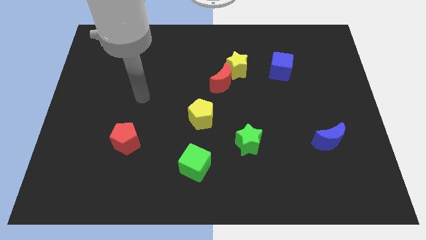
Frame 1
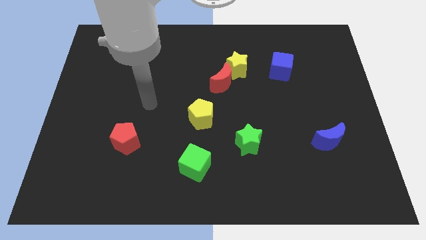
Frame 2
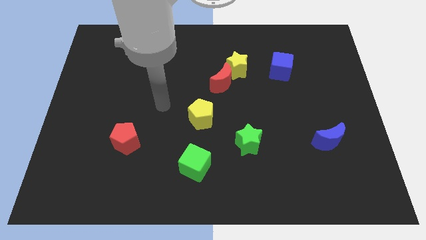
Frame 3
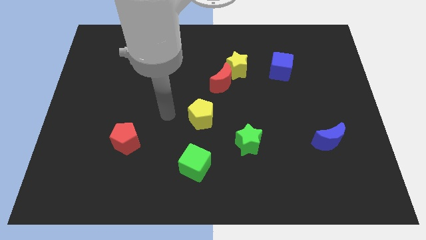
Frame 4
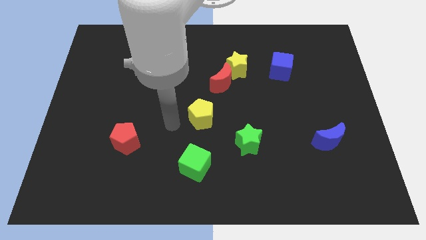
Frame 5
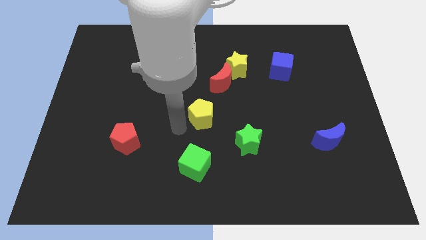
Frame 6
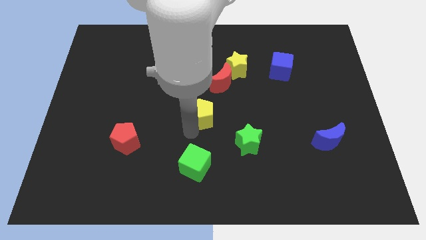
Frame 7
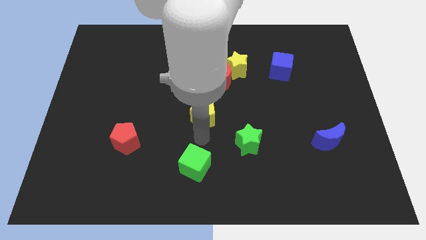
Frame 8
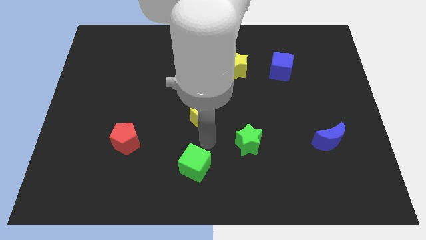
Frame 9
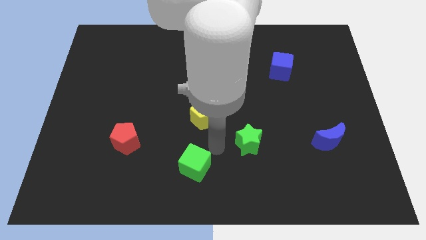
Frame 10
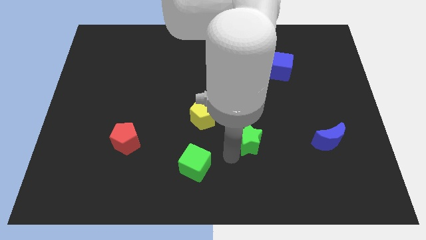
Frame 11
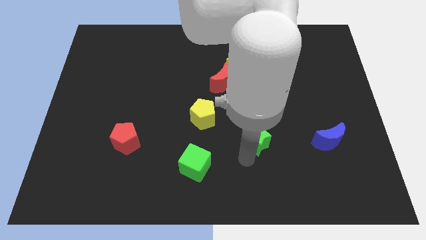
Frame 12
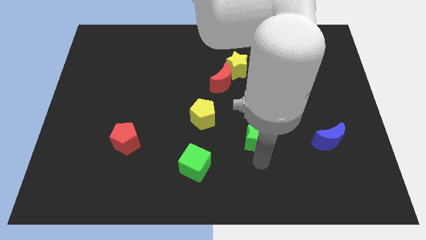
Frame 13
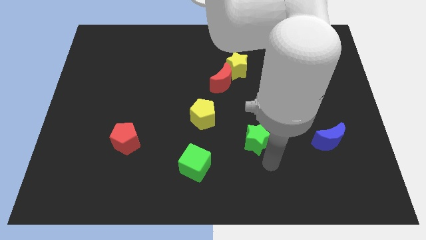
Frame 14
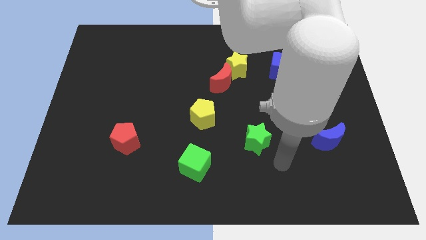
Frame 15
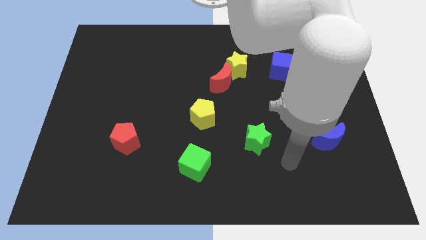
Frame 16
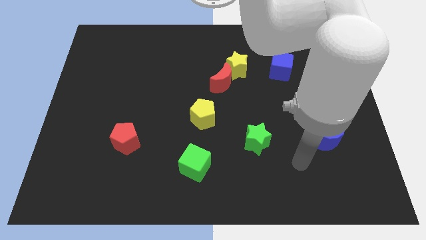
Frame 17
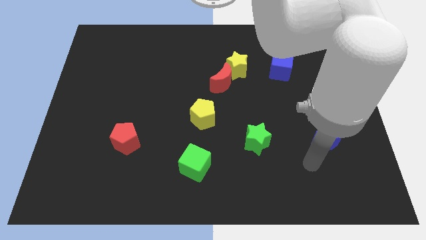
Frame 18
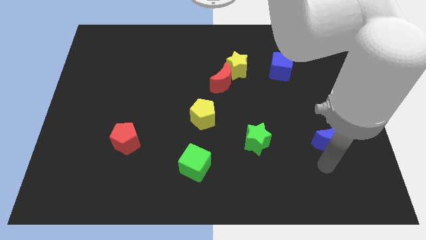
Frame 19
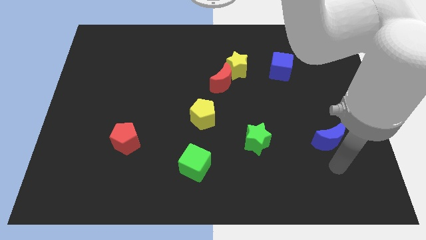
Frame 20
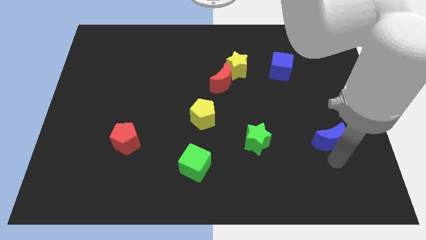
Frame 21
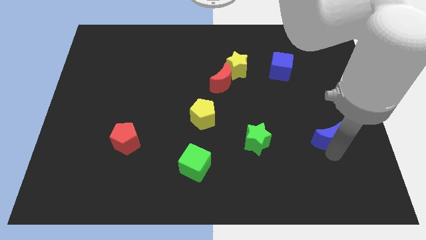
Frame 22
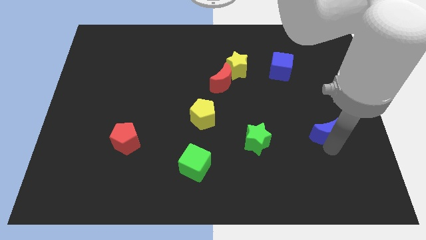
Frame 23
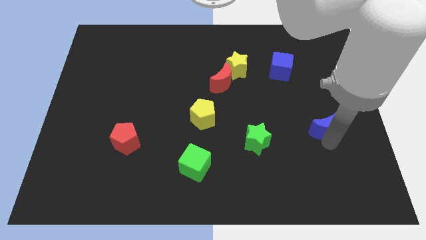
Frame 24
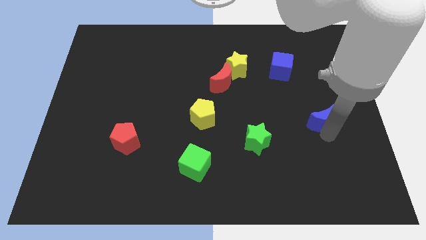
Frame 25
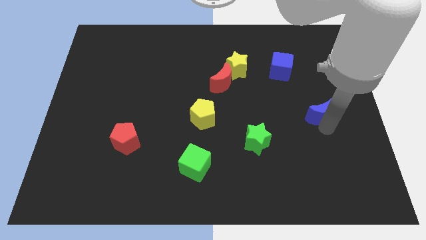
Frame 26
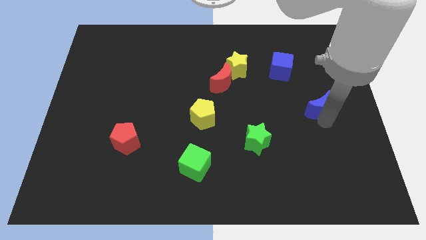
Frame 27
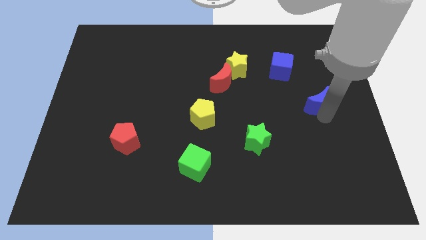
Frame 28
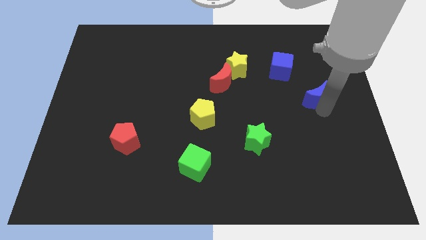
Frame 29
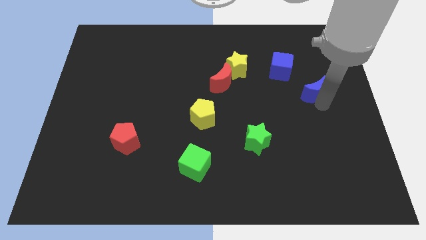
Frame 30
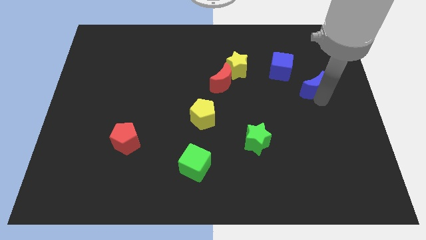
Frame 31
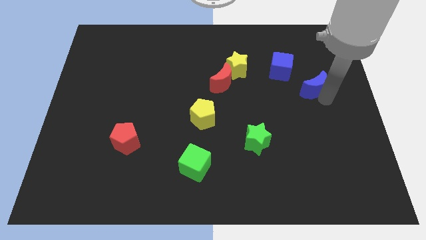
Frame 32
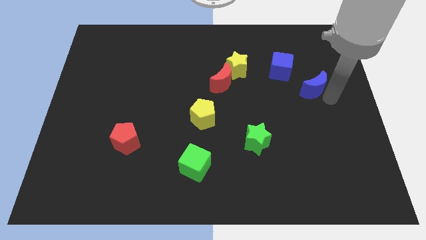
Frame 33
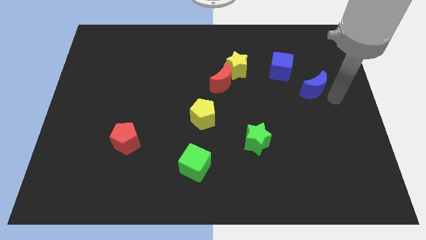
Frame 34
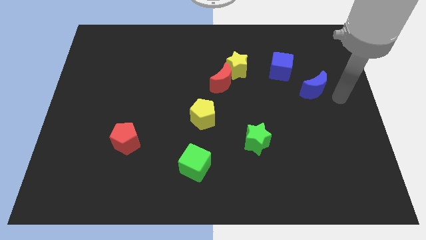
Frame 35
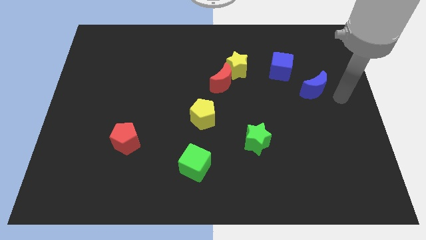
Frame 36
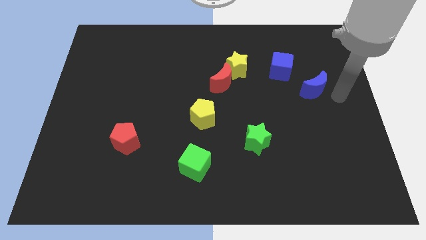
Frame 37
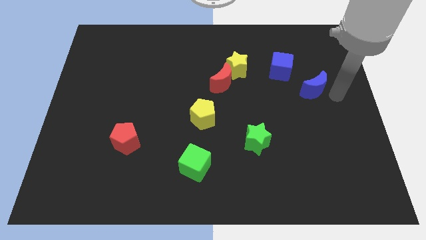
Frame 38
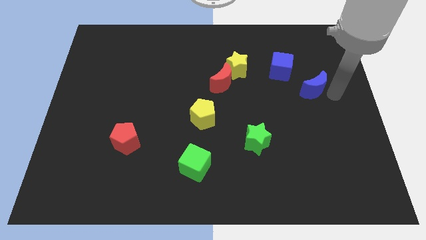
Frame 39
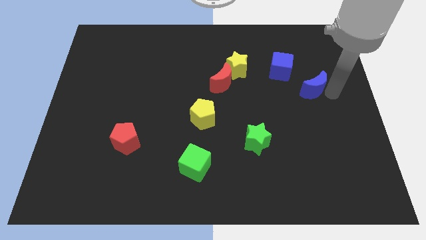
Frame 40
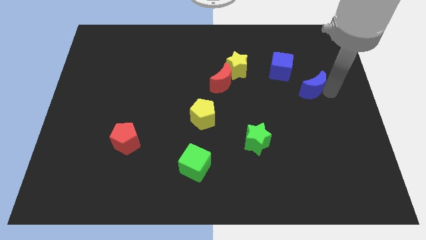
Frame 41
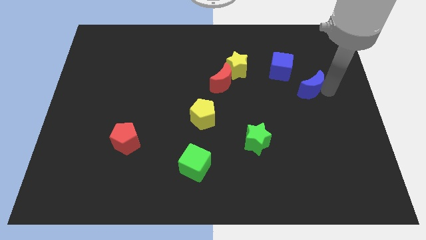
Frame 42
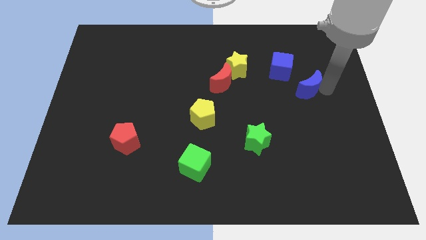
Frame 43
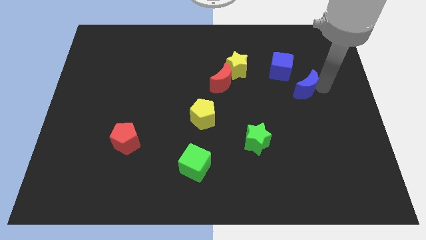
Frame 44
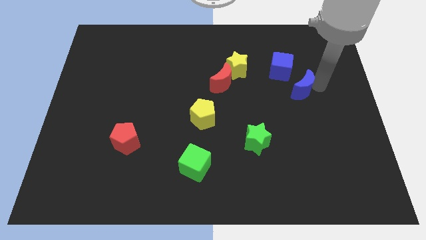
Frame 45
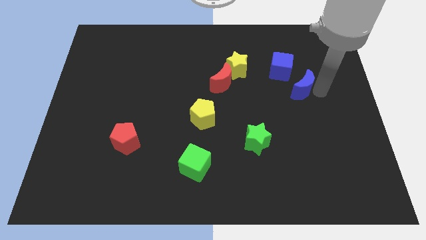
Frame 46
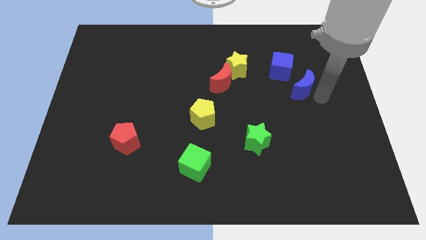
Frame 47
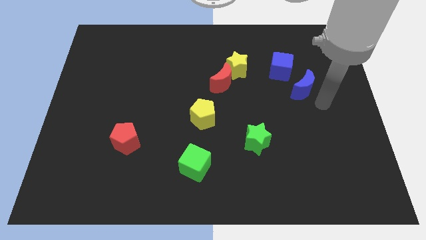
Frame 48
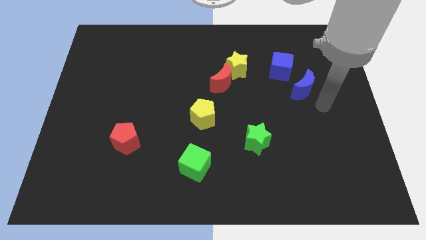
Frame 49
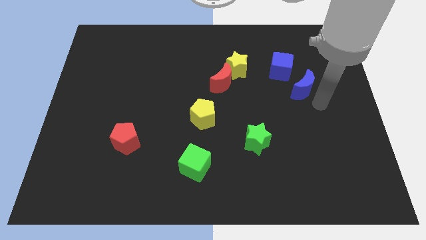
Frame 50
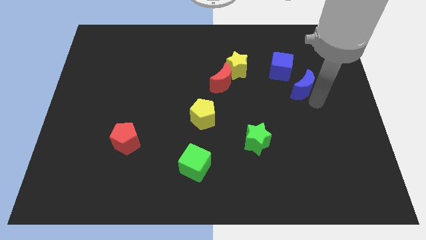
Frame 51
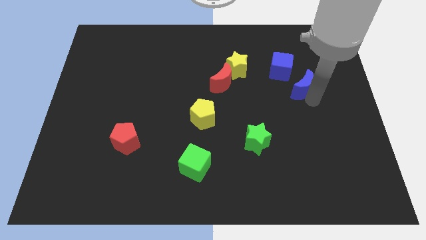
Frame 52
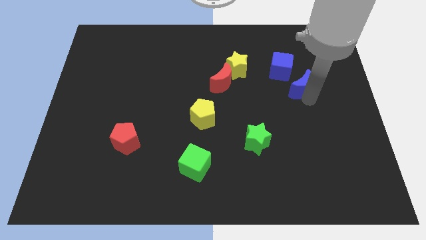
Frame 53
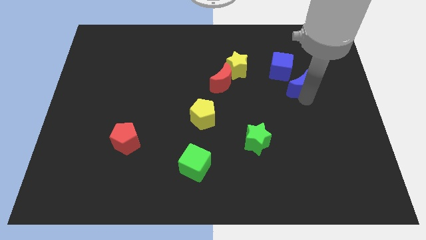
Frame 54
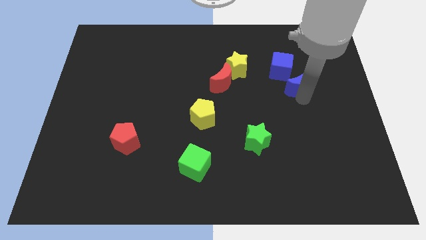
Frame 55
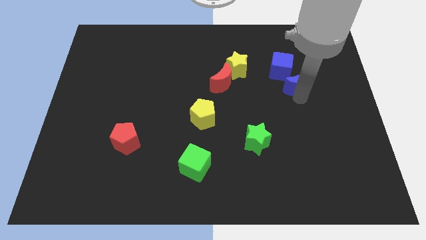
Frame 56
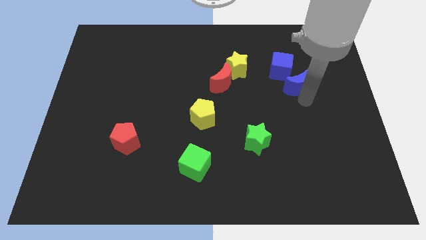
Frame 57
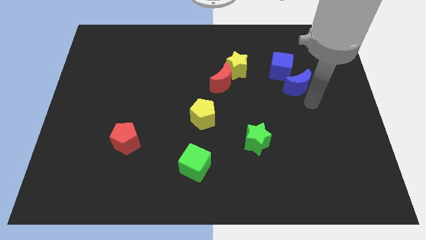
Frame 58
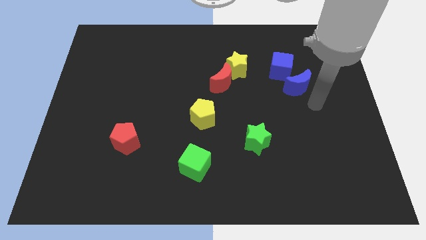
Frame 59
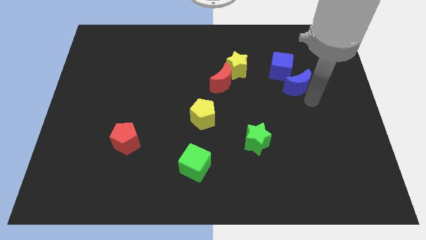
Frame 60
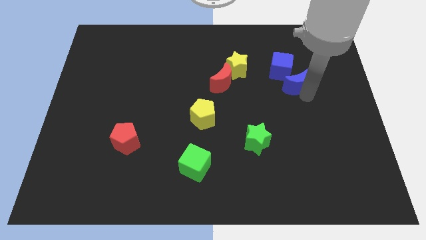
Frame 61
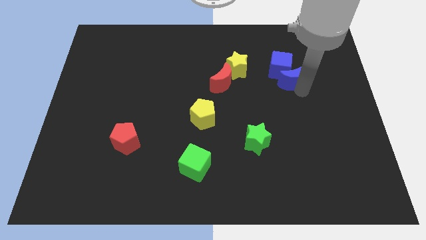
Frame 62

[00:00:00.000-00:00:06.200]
move the blue moon next to the blue cube
